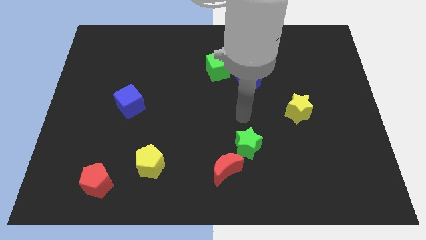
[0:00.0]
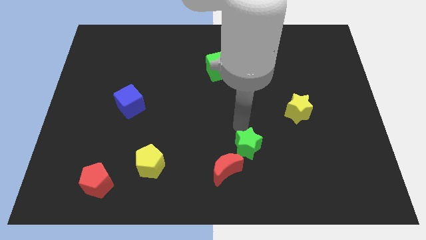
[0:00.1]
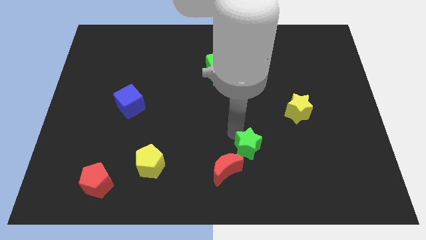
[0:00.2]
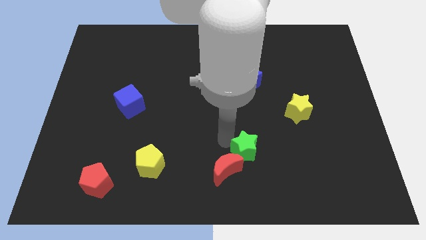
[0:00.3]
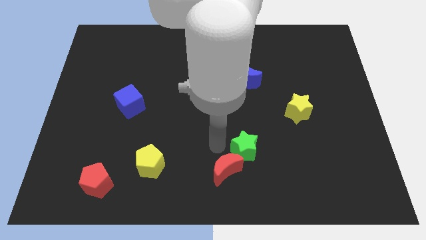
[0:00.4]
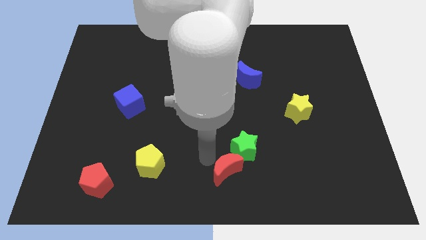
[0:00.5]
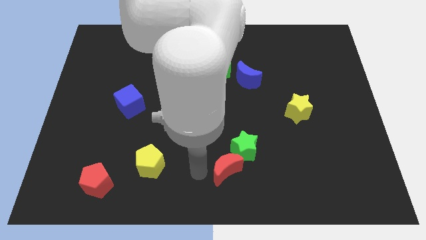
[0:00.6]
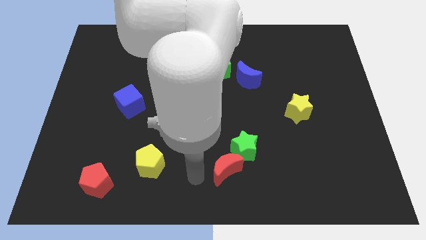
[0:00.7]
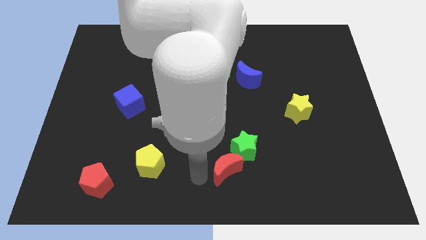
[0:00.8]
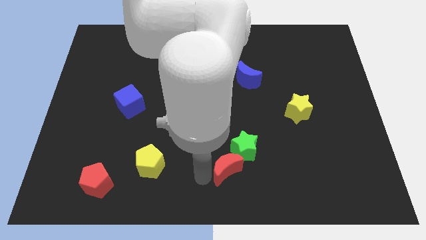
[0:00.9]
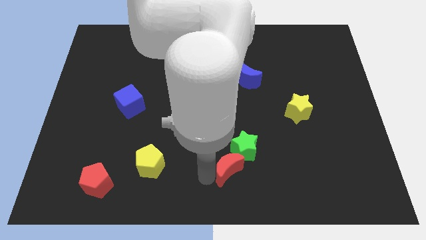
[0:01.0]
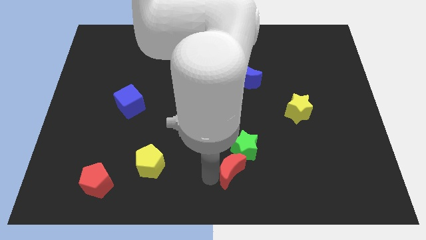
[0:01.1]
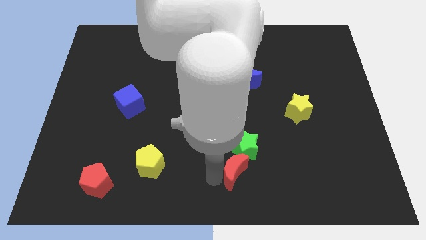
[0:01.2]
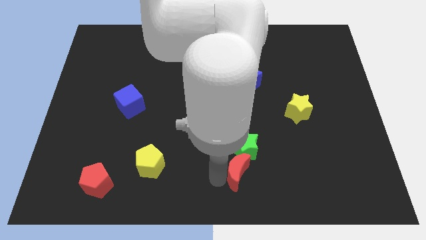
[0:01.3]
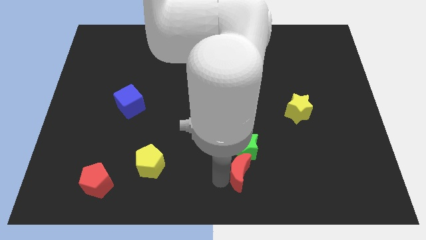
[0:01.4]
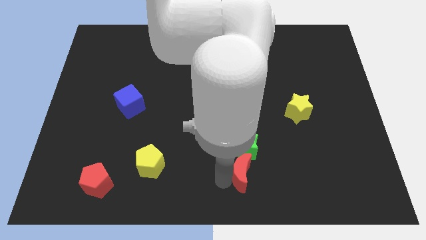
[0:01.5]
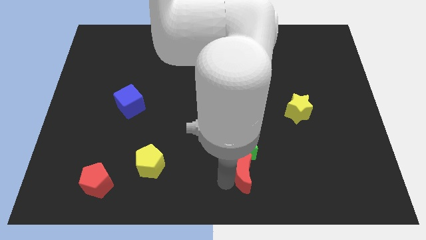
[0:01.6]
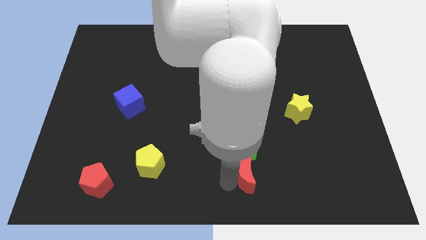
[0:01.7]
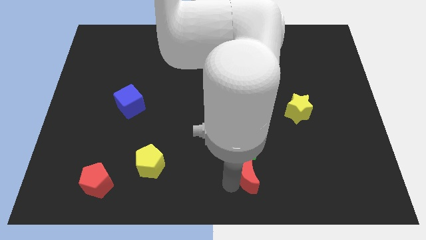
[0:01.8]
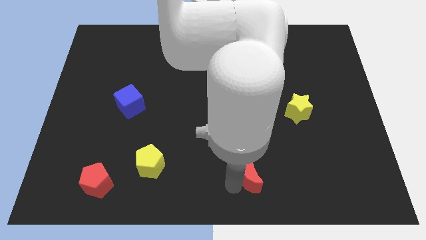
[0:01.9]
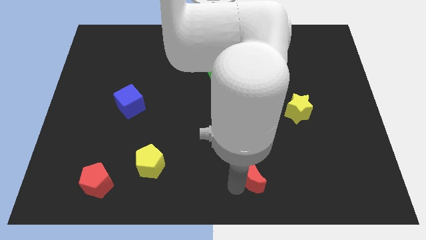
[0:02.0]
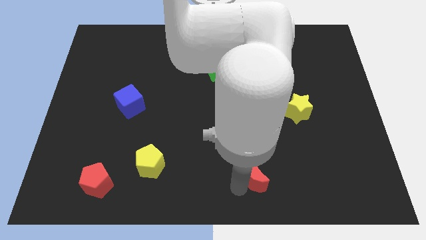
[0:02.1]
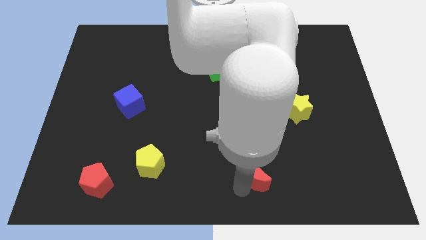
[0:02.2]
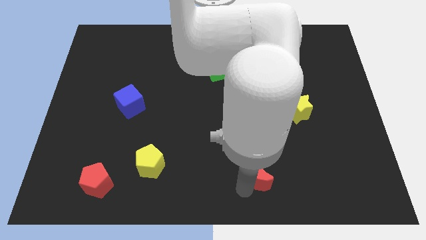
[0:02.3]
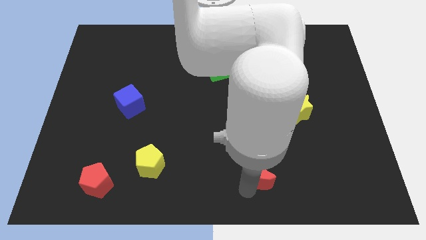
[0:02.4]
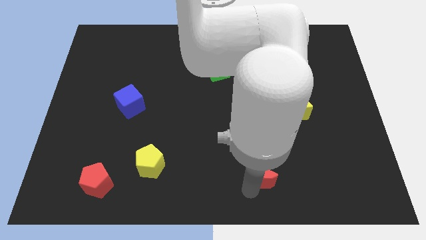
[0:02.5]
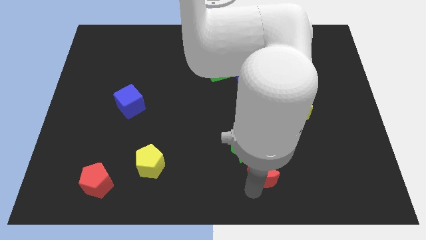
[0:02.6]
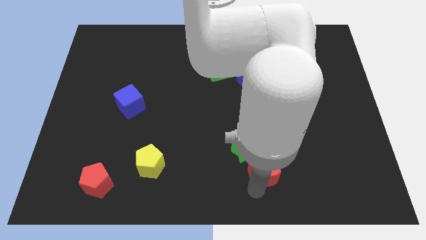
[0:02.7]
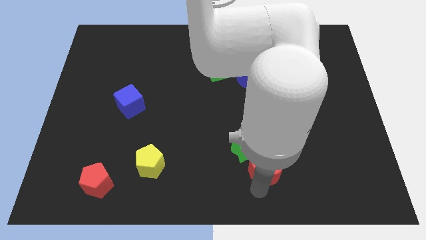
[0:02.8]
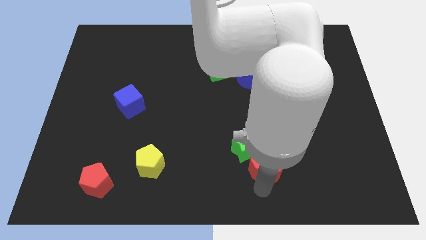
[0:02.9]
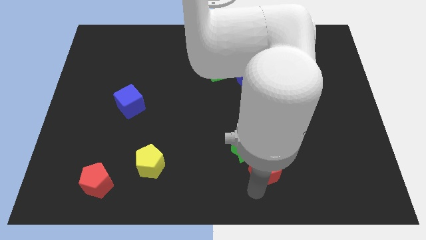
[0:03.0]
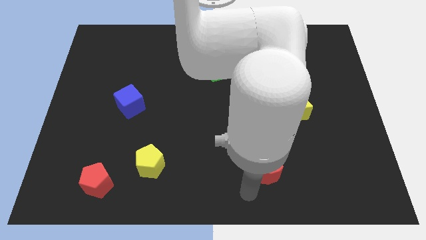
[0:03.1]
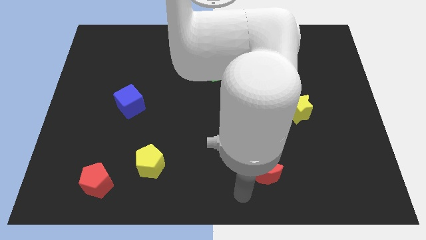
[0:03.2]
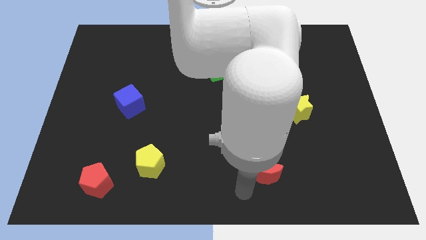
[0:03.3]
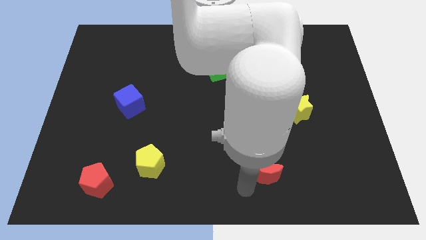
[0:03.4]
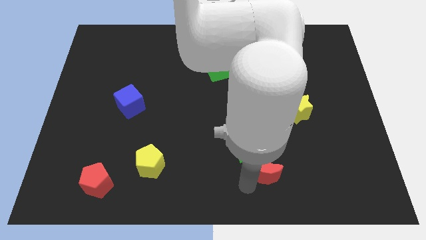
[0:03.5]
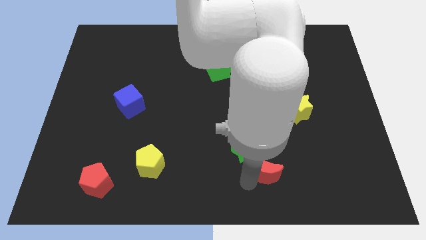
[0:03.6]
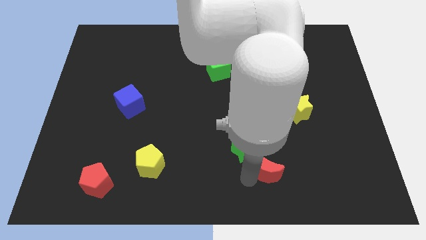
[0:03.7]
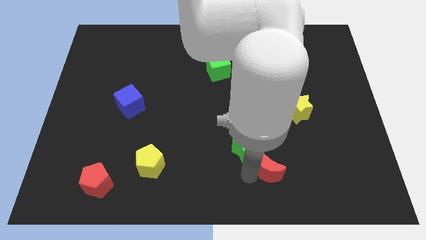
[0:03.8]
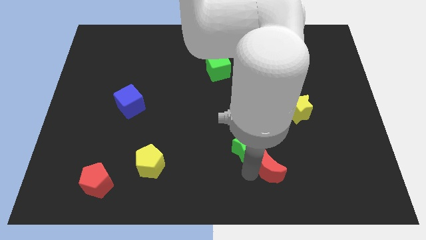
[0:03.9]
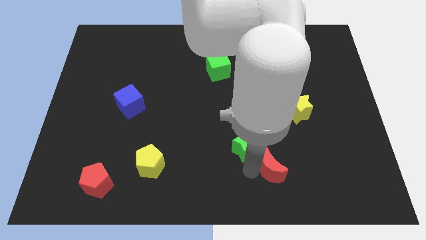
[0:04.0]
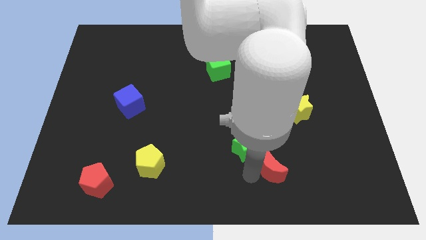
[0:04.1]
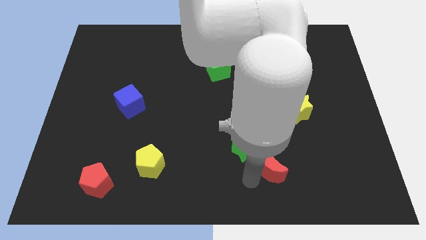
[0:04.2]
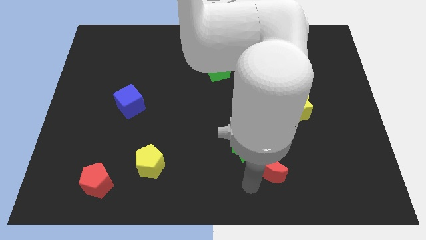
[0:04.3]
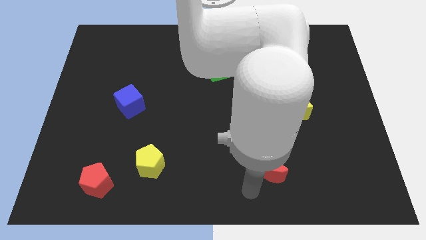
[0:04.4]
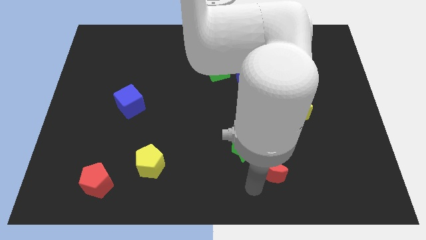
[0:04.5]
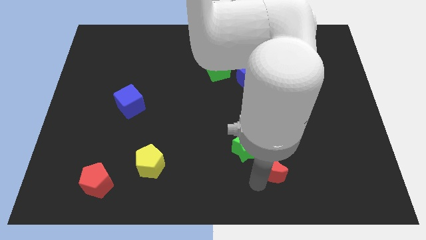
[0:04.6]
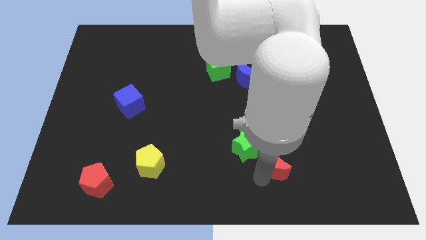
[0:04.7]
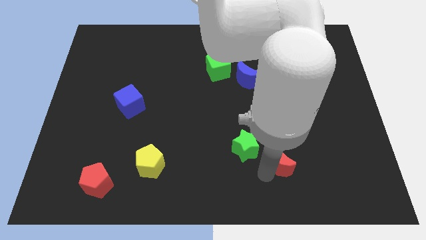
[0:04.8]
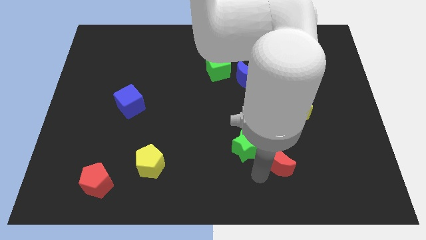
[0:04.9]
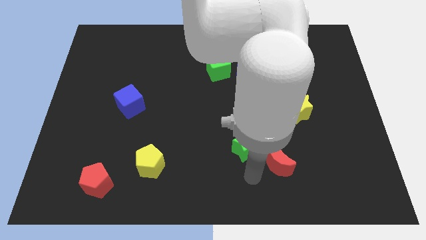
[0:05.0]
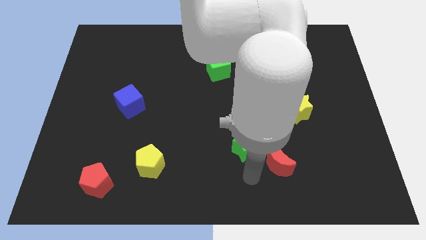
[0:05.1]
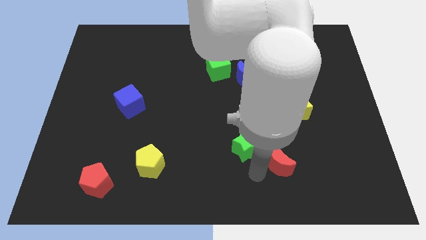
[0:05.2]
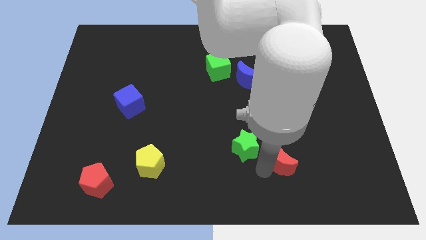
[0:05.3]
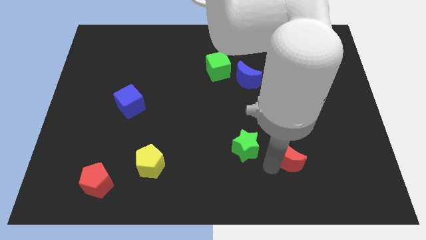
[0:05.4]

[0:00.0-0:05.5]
move the red moon to the bottom of the yellow star
